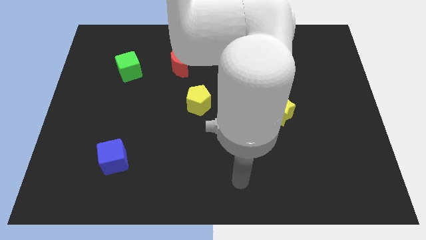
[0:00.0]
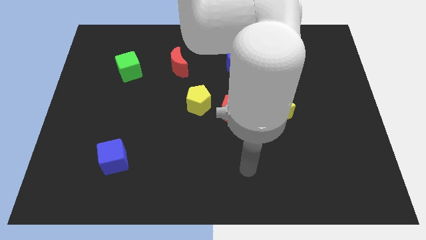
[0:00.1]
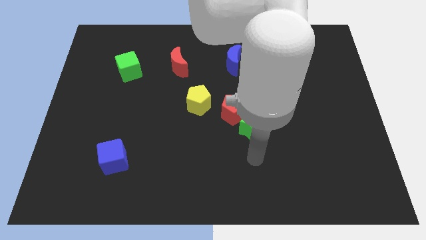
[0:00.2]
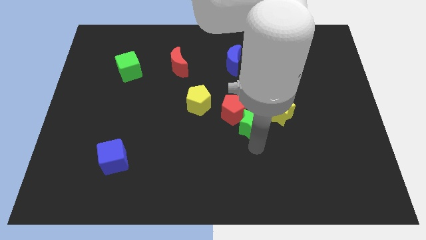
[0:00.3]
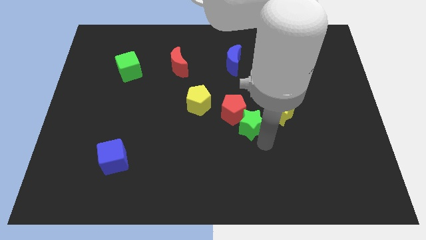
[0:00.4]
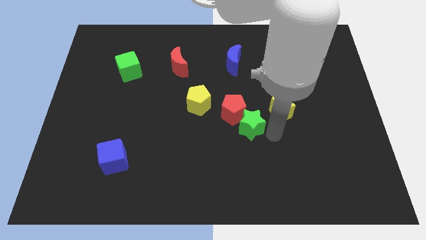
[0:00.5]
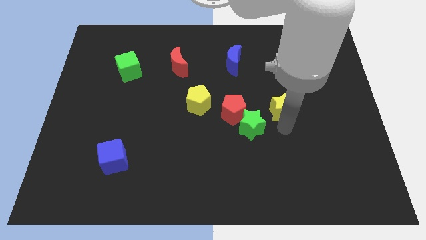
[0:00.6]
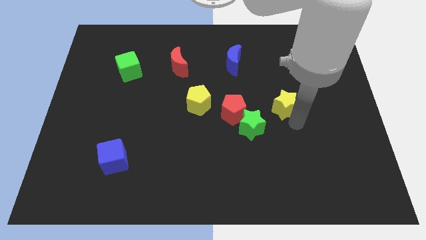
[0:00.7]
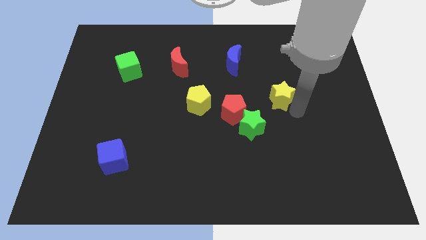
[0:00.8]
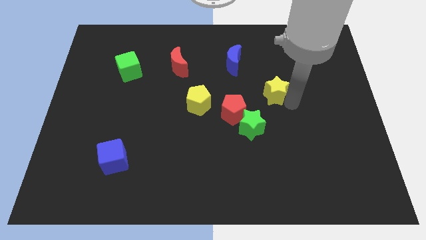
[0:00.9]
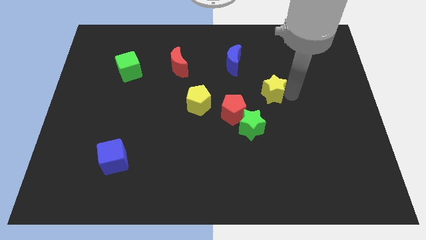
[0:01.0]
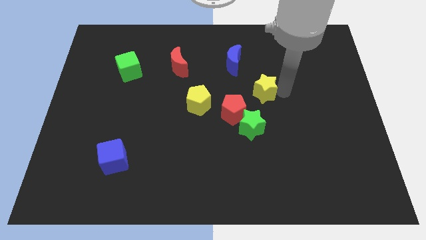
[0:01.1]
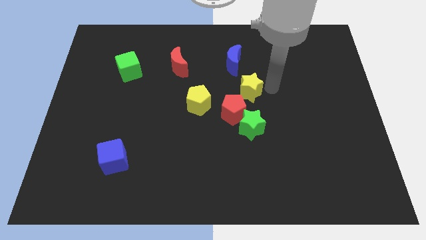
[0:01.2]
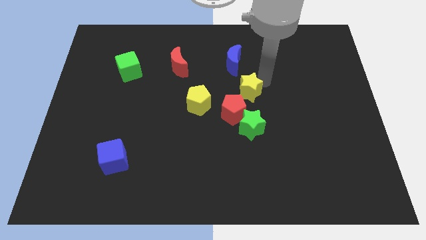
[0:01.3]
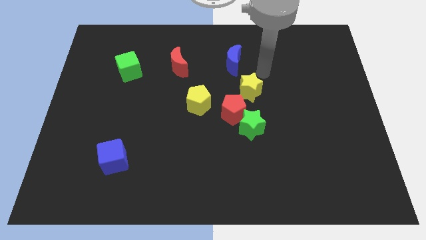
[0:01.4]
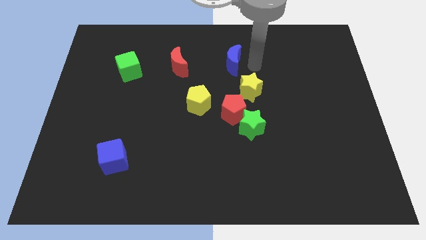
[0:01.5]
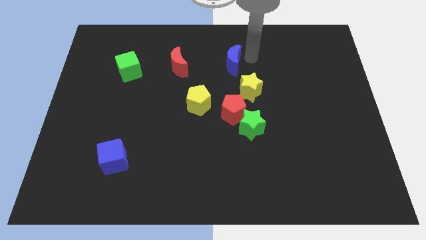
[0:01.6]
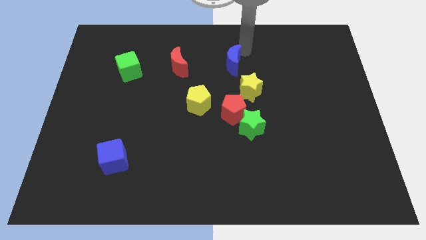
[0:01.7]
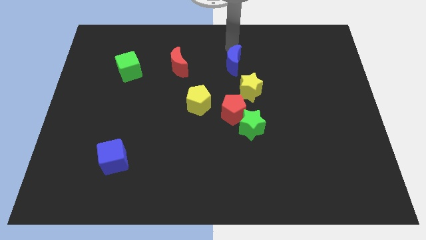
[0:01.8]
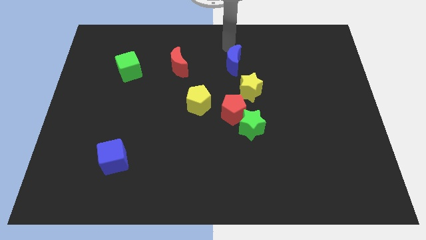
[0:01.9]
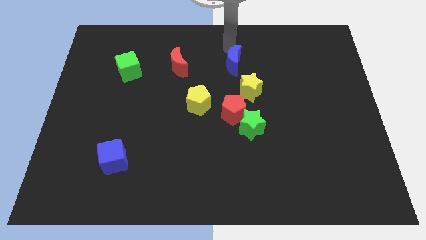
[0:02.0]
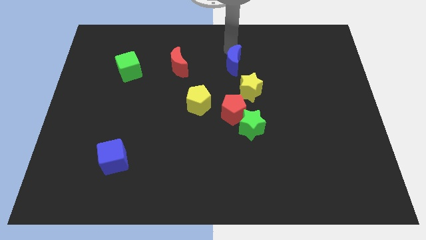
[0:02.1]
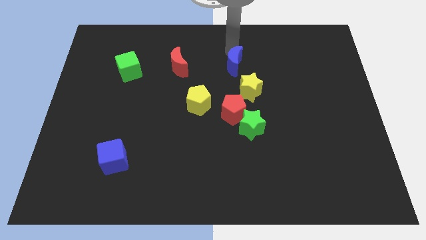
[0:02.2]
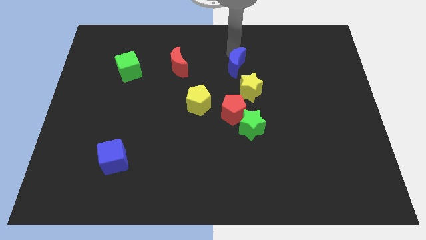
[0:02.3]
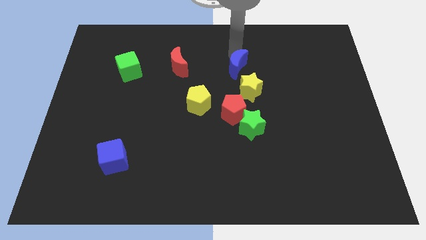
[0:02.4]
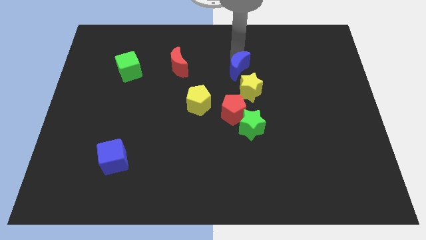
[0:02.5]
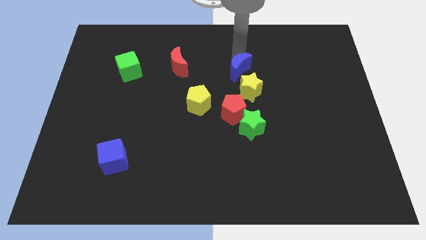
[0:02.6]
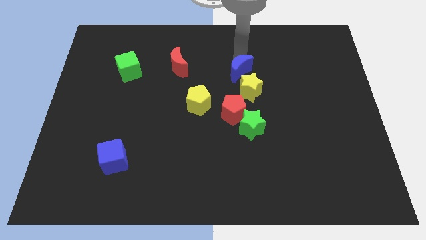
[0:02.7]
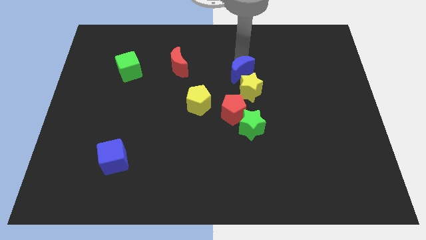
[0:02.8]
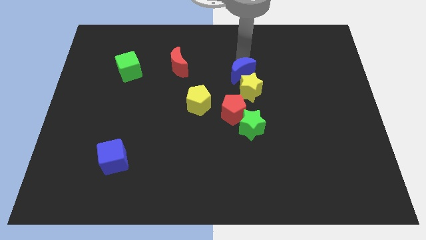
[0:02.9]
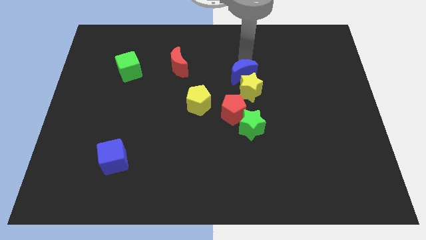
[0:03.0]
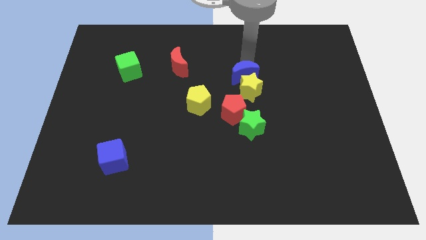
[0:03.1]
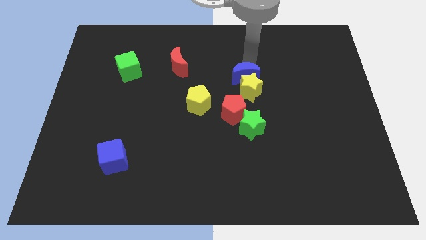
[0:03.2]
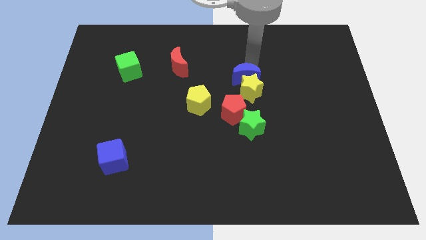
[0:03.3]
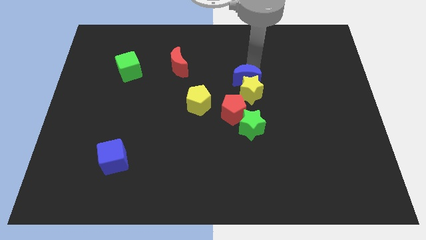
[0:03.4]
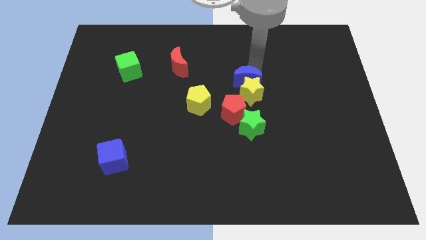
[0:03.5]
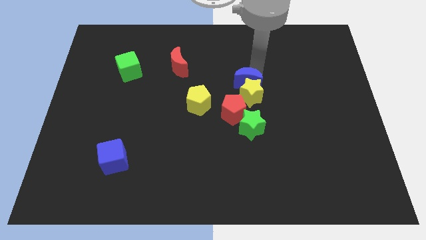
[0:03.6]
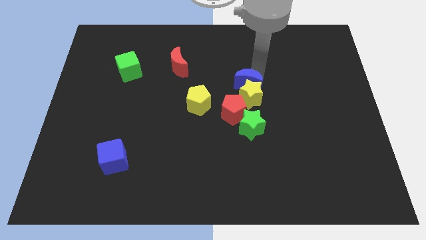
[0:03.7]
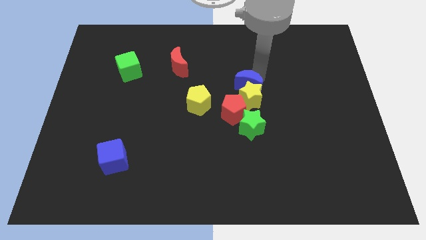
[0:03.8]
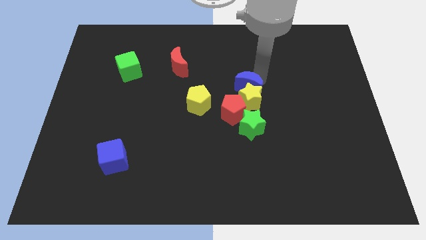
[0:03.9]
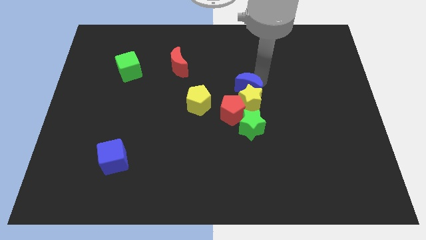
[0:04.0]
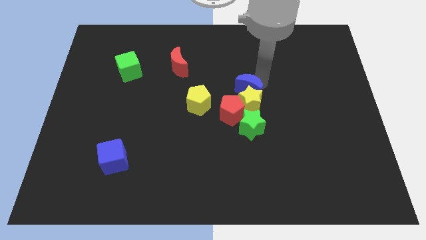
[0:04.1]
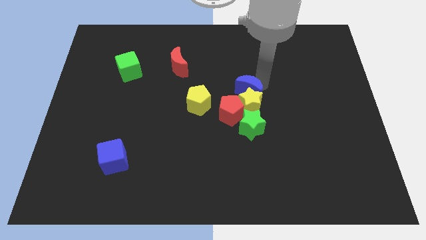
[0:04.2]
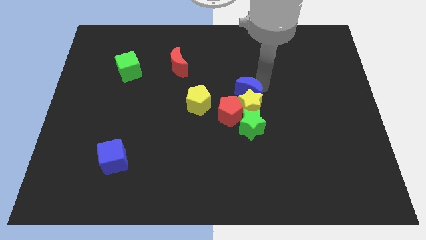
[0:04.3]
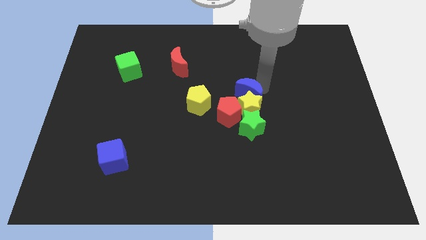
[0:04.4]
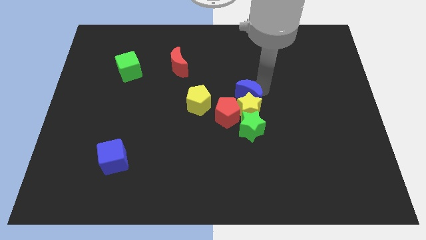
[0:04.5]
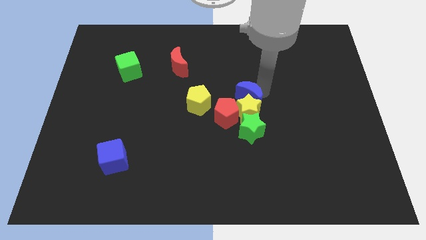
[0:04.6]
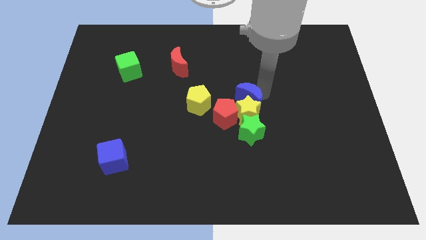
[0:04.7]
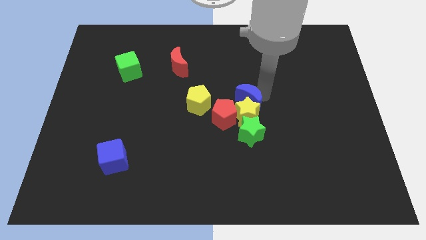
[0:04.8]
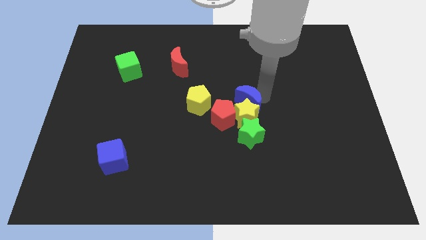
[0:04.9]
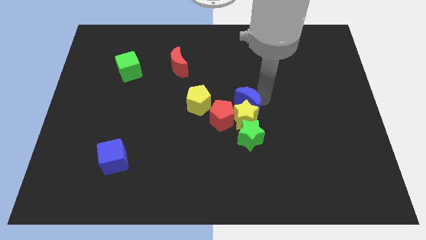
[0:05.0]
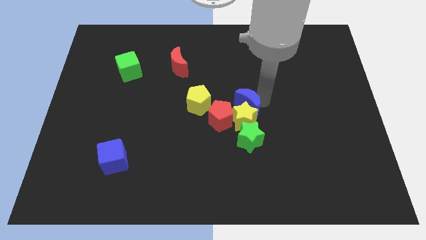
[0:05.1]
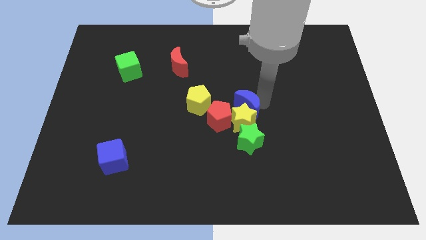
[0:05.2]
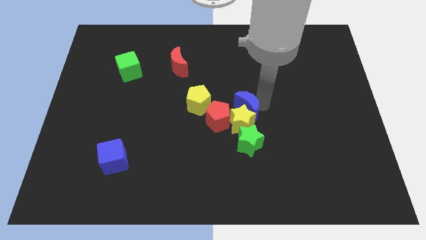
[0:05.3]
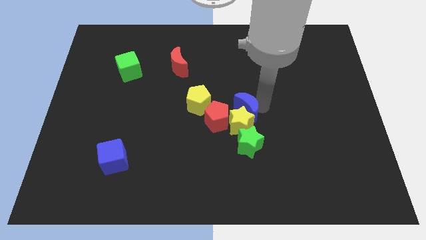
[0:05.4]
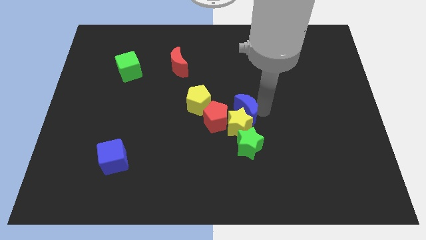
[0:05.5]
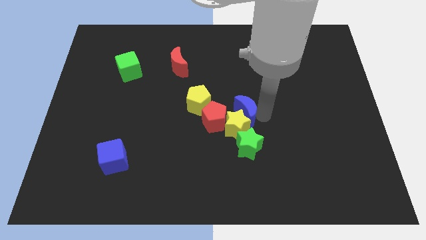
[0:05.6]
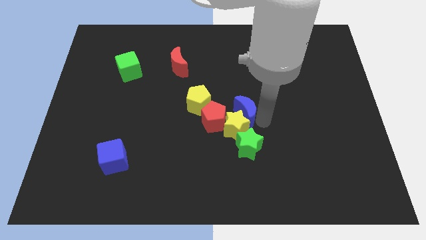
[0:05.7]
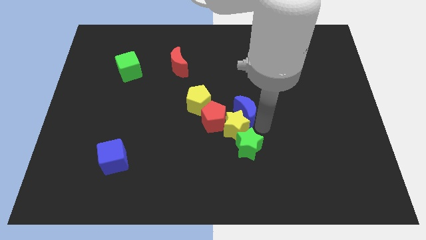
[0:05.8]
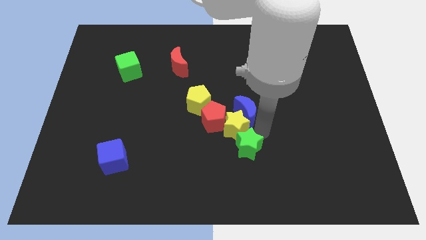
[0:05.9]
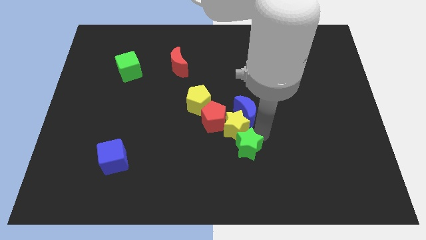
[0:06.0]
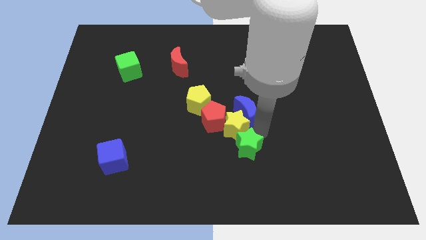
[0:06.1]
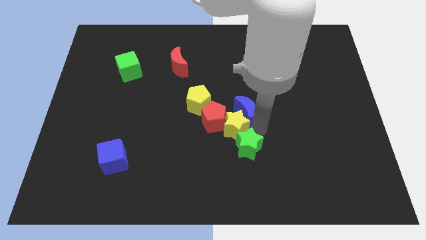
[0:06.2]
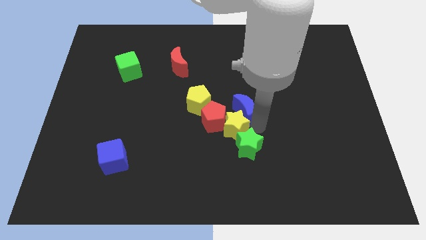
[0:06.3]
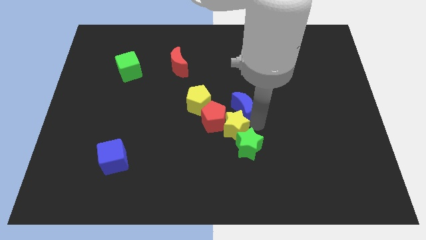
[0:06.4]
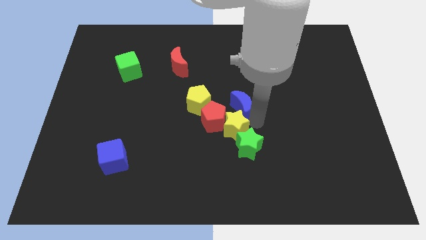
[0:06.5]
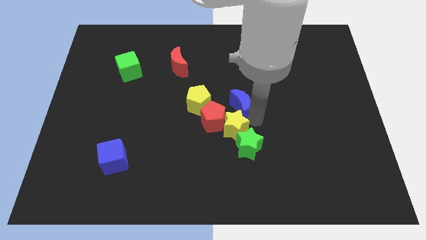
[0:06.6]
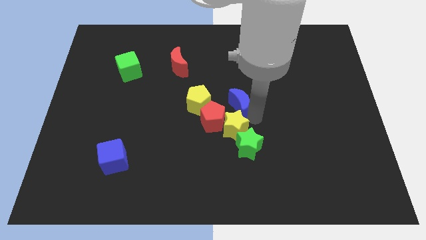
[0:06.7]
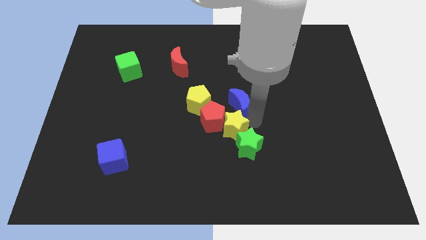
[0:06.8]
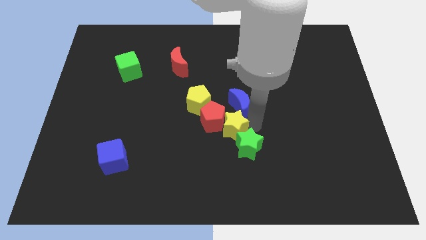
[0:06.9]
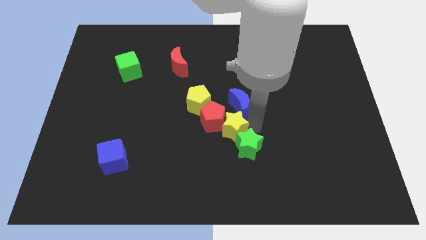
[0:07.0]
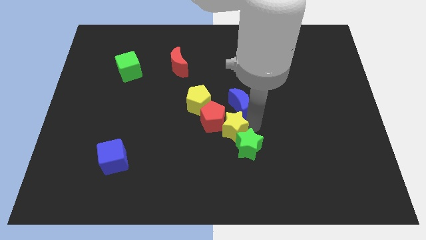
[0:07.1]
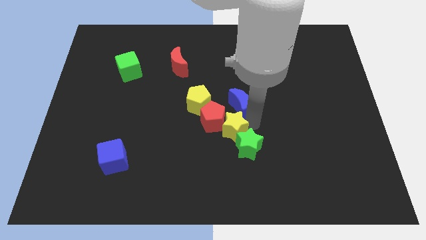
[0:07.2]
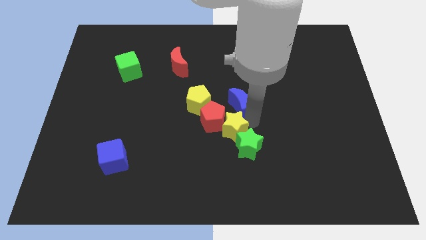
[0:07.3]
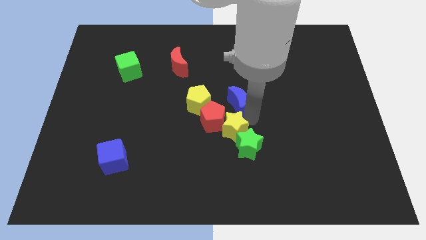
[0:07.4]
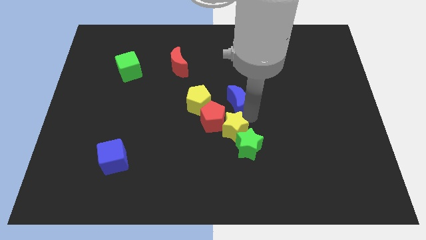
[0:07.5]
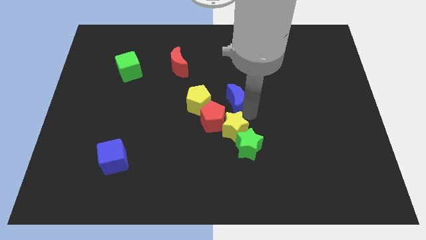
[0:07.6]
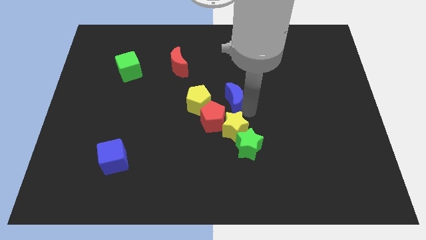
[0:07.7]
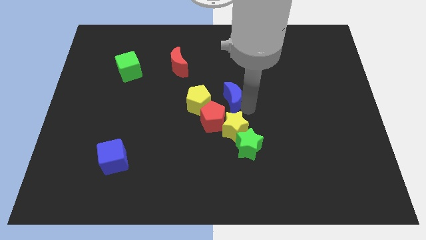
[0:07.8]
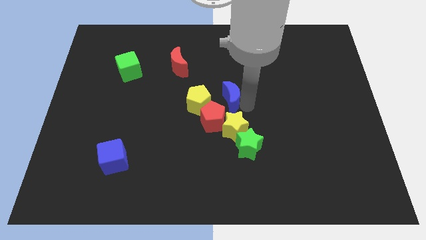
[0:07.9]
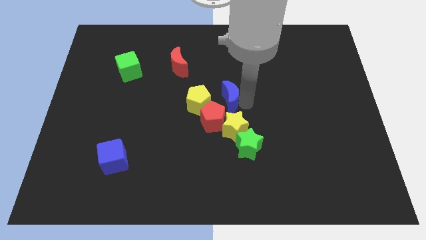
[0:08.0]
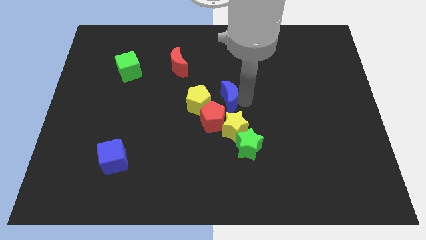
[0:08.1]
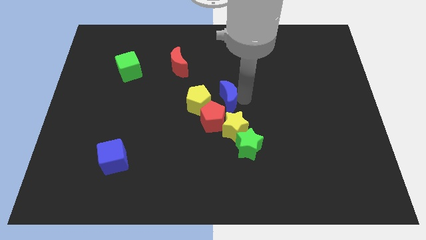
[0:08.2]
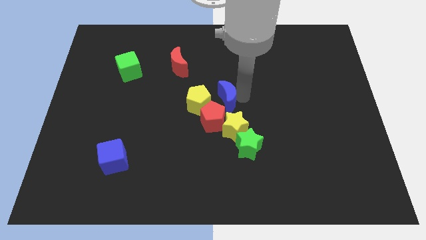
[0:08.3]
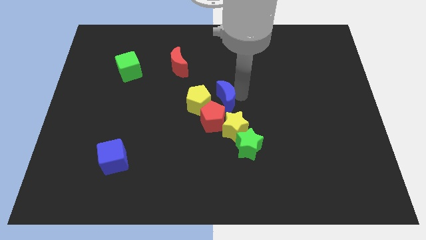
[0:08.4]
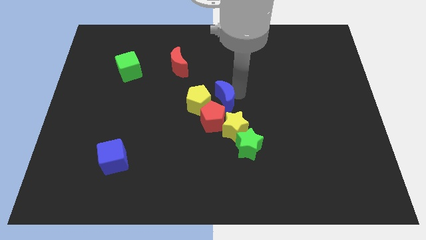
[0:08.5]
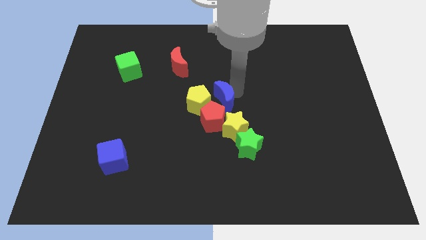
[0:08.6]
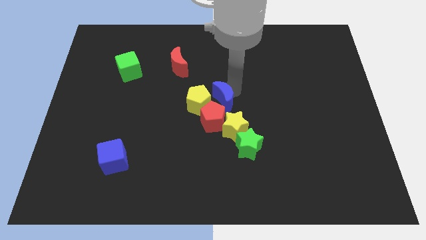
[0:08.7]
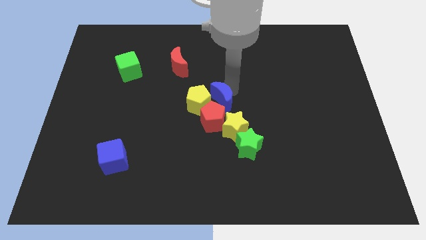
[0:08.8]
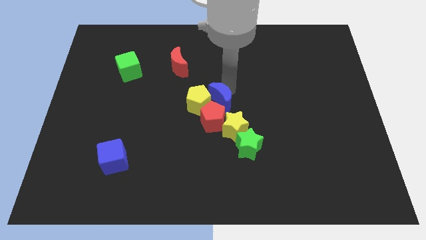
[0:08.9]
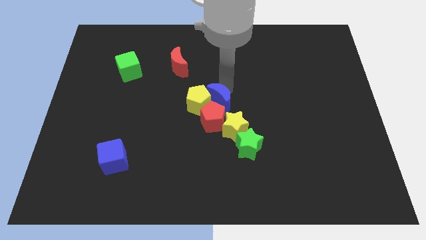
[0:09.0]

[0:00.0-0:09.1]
push the blue moon towards the red pentagon
